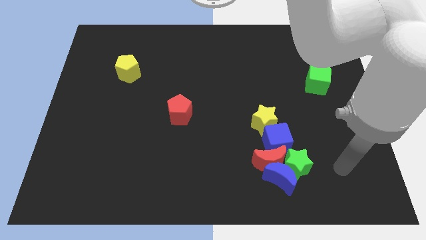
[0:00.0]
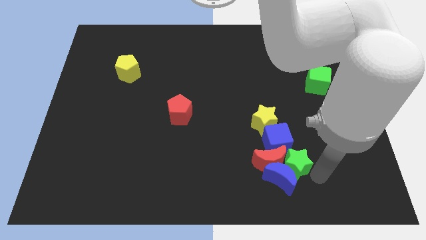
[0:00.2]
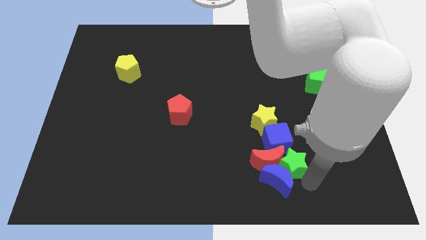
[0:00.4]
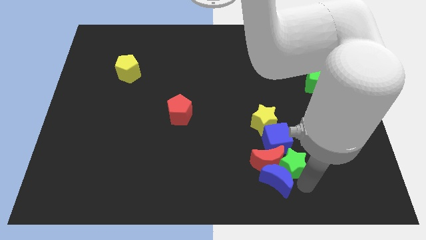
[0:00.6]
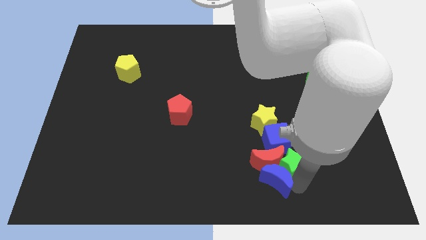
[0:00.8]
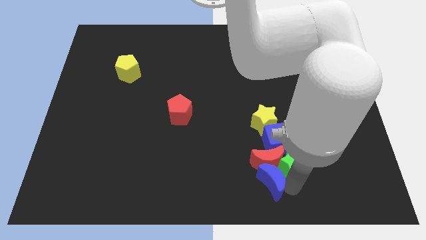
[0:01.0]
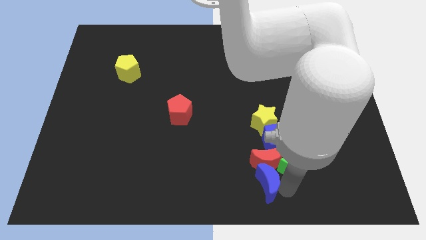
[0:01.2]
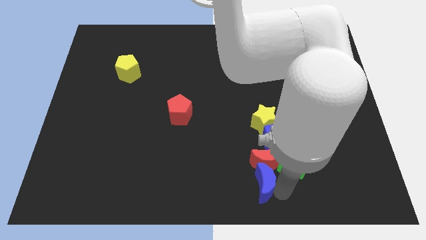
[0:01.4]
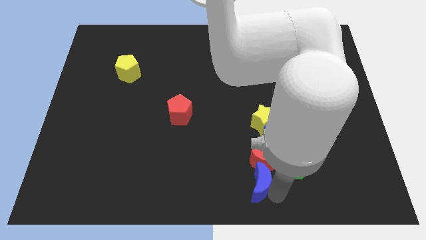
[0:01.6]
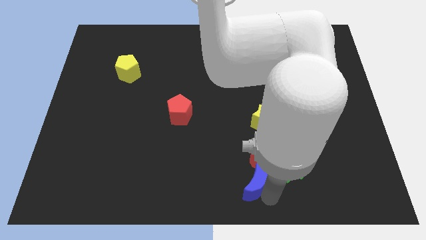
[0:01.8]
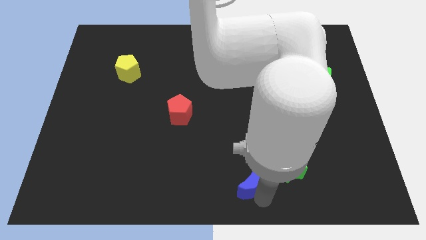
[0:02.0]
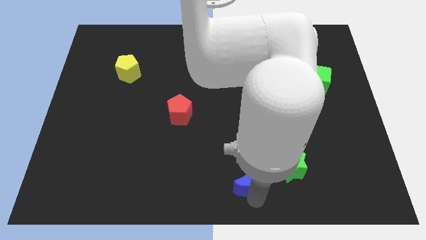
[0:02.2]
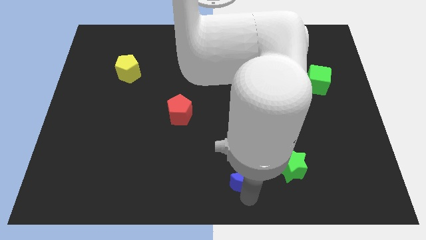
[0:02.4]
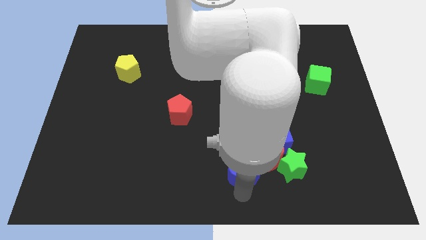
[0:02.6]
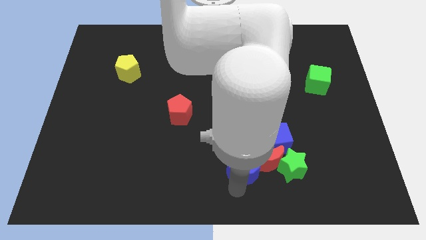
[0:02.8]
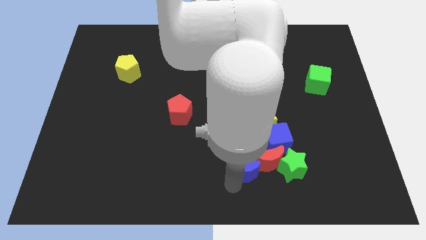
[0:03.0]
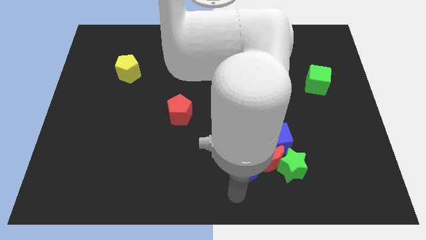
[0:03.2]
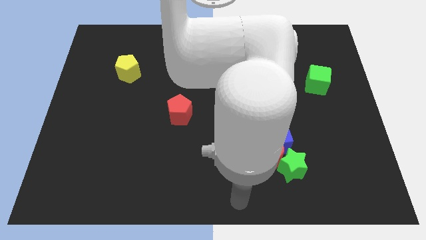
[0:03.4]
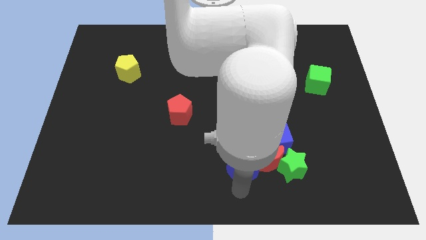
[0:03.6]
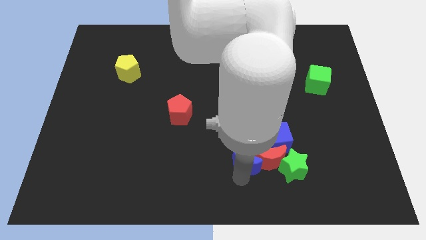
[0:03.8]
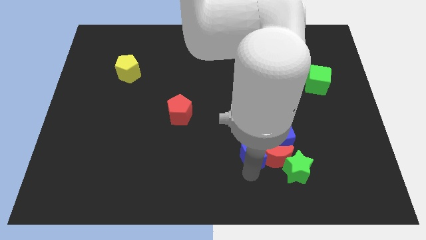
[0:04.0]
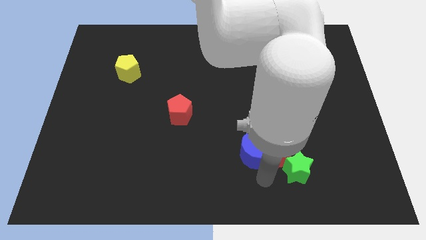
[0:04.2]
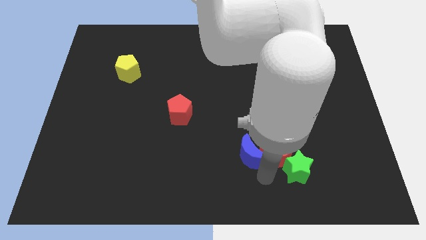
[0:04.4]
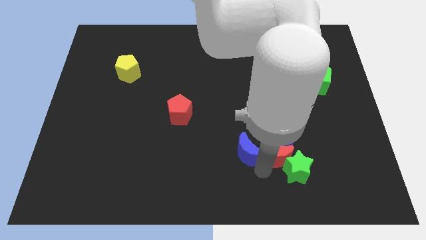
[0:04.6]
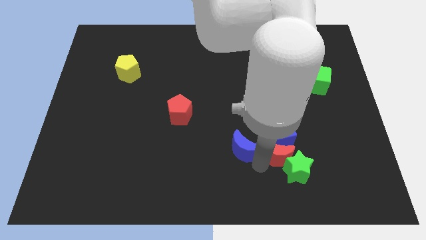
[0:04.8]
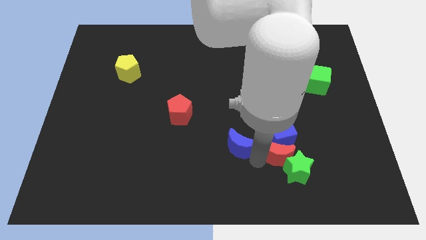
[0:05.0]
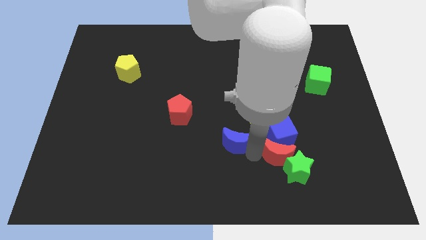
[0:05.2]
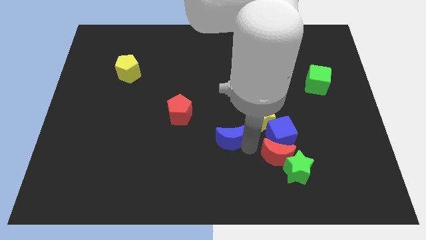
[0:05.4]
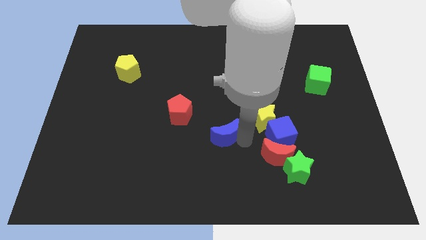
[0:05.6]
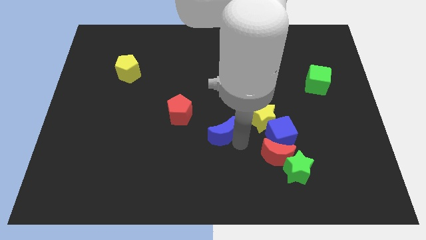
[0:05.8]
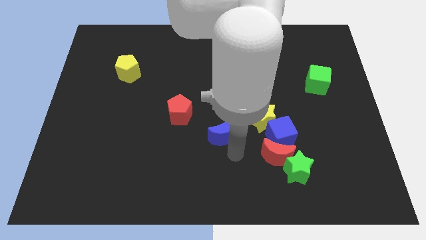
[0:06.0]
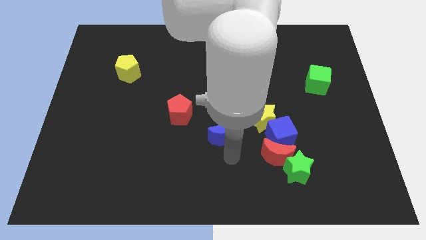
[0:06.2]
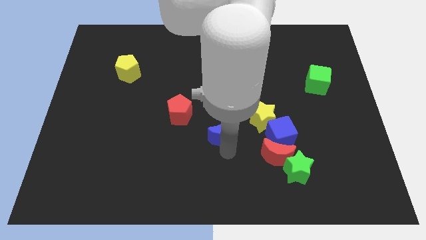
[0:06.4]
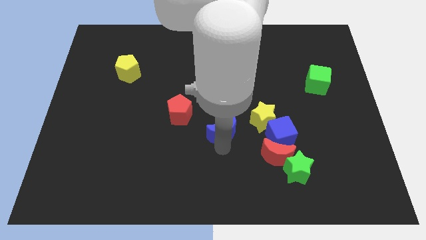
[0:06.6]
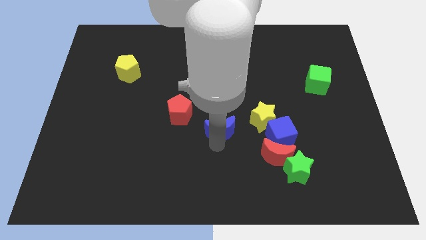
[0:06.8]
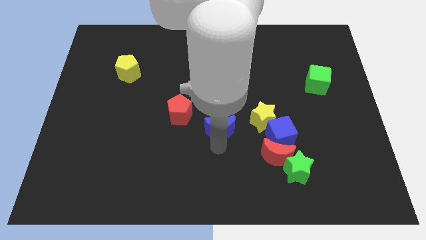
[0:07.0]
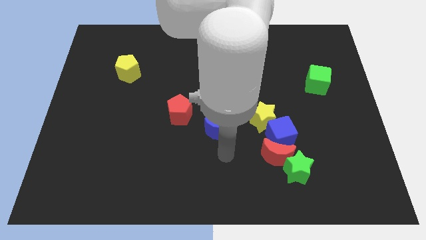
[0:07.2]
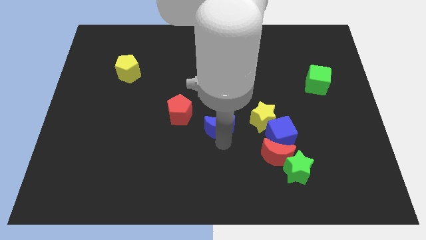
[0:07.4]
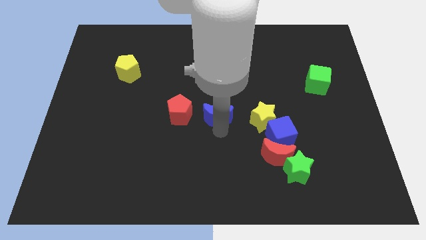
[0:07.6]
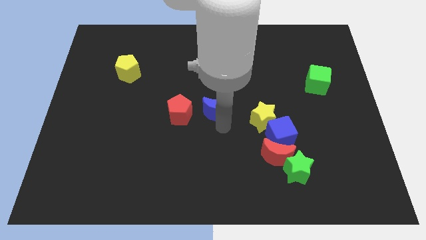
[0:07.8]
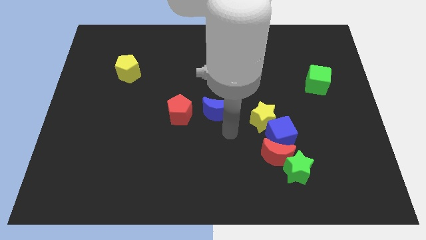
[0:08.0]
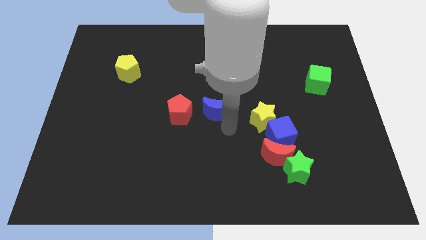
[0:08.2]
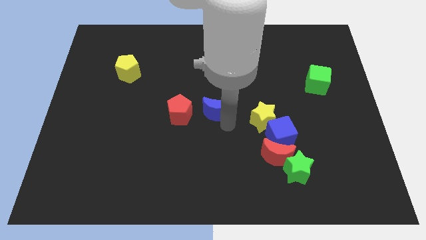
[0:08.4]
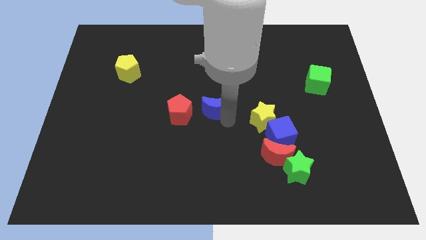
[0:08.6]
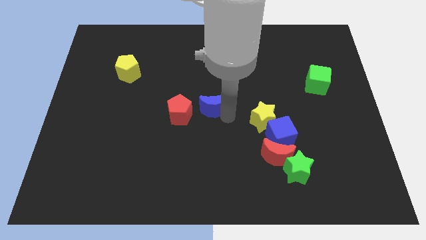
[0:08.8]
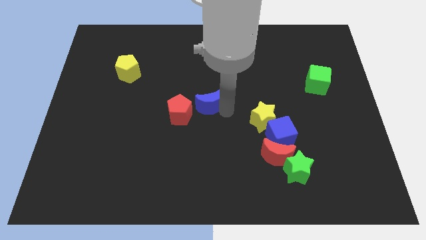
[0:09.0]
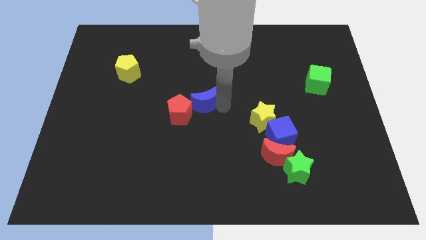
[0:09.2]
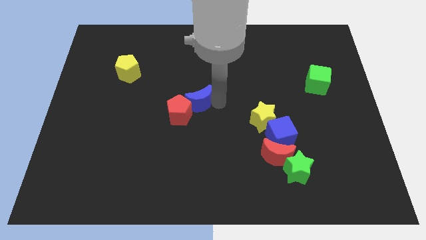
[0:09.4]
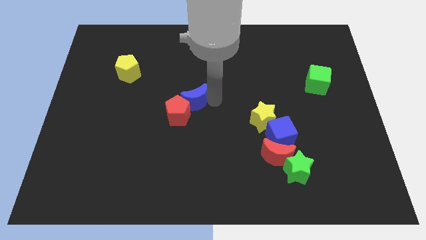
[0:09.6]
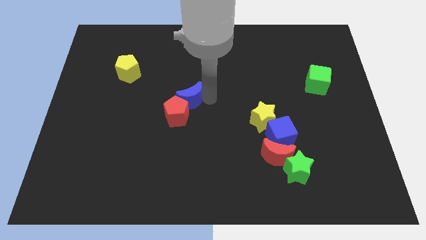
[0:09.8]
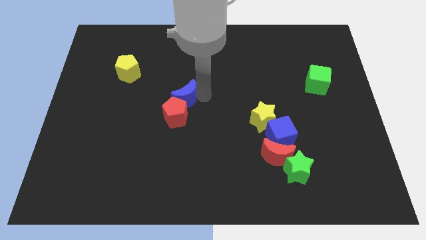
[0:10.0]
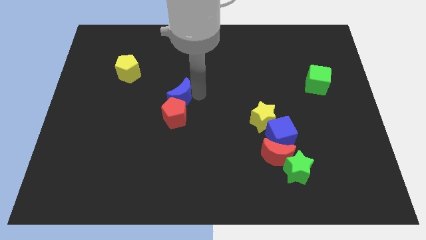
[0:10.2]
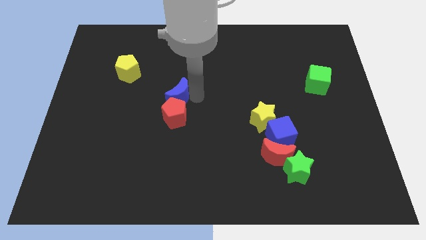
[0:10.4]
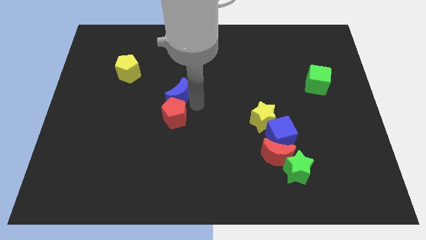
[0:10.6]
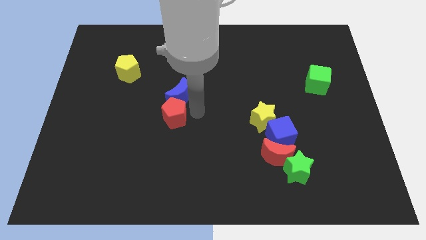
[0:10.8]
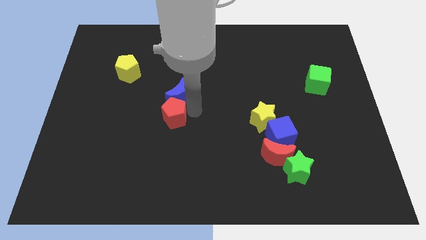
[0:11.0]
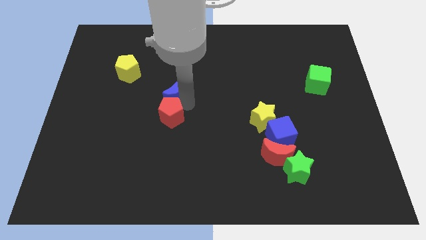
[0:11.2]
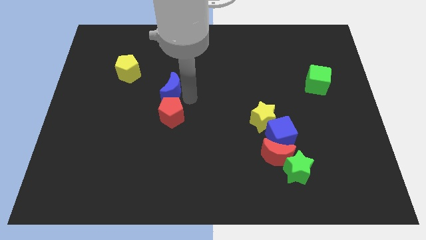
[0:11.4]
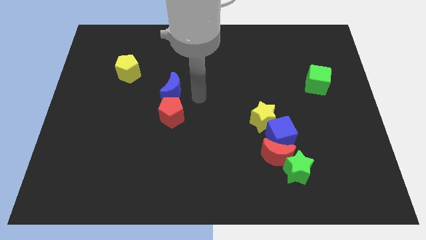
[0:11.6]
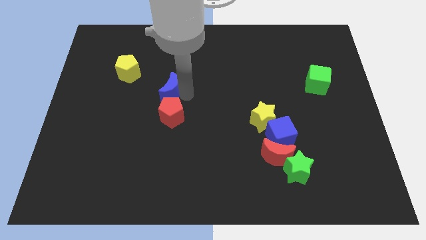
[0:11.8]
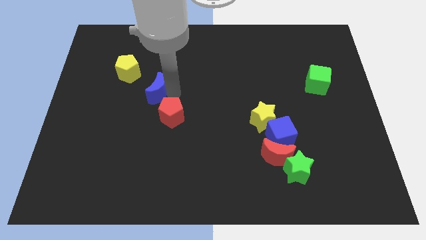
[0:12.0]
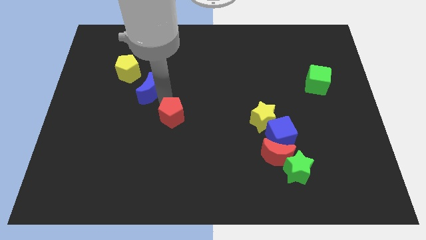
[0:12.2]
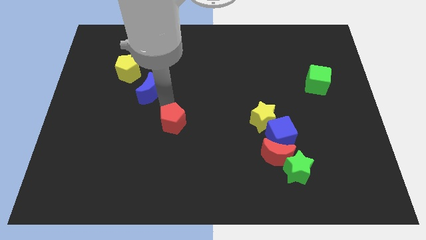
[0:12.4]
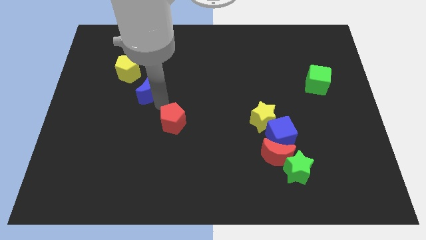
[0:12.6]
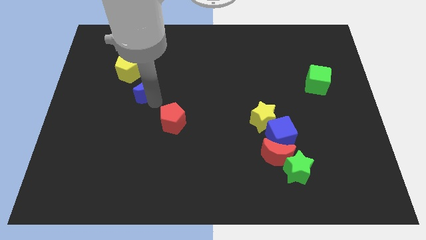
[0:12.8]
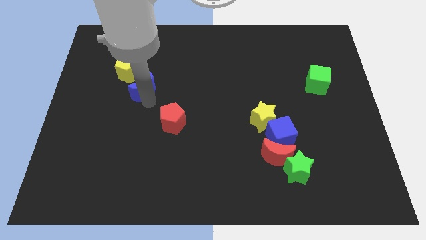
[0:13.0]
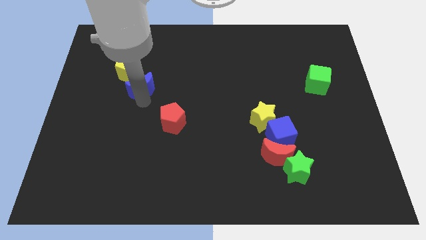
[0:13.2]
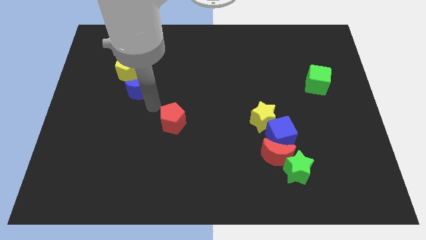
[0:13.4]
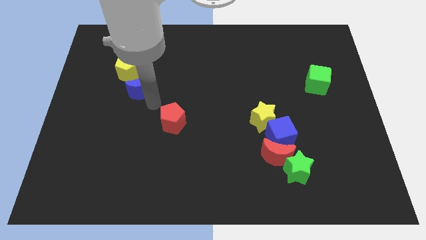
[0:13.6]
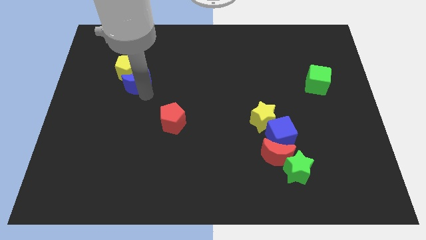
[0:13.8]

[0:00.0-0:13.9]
put the blue moon next to the yellow pentagon

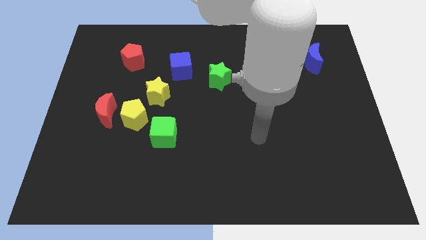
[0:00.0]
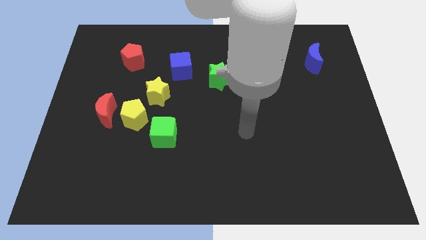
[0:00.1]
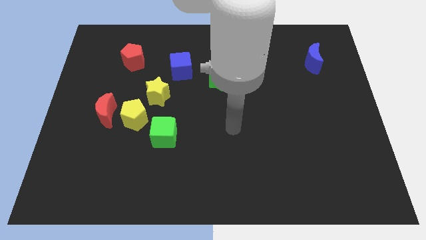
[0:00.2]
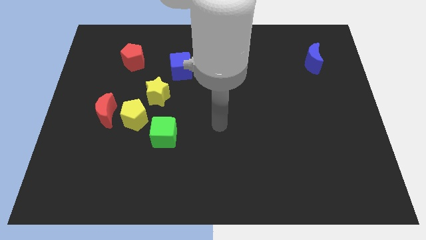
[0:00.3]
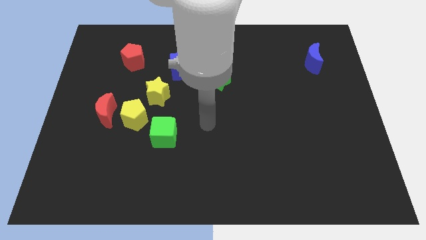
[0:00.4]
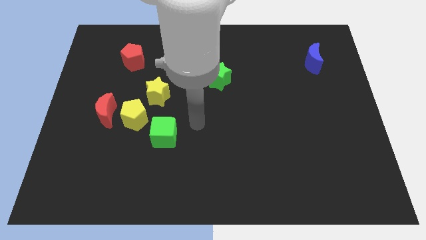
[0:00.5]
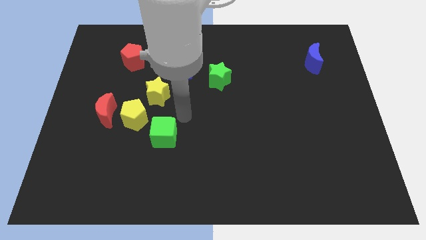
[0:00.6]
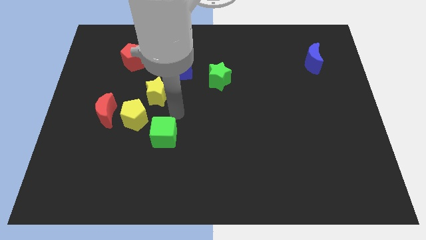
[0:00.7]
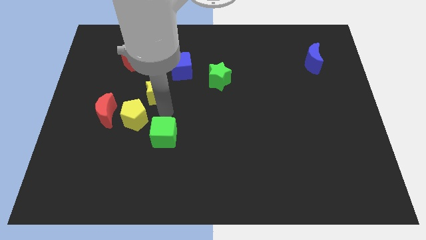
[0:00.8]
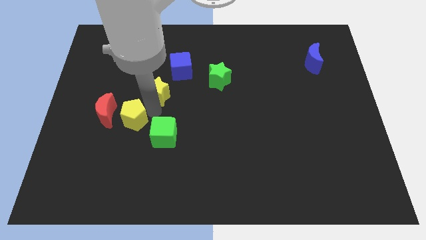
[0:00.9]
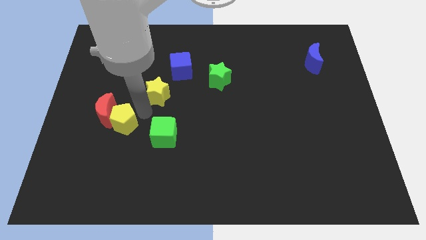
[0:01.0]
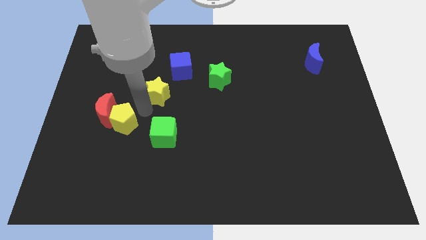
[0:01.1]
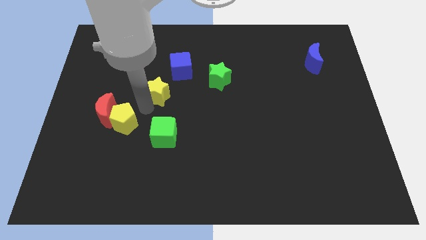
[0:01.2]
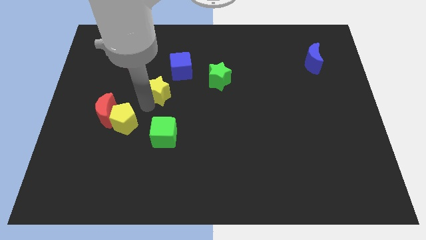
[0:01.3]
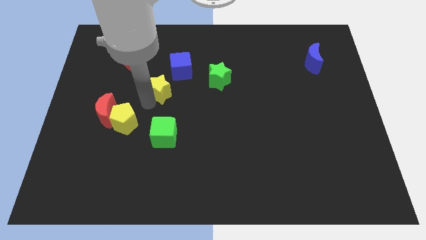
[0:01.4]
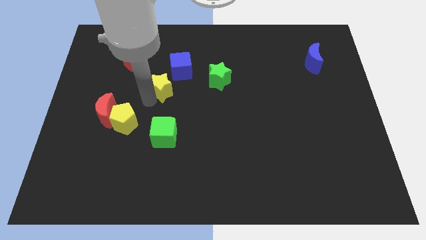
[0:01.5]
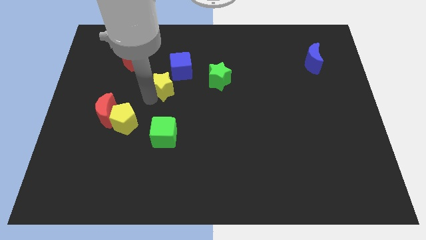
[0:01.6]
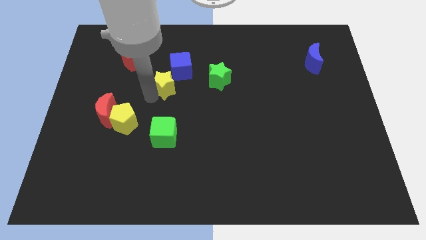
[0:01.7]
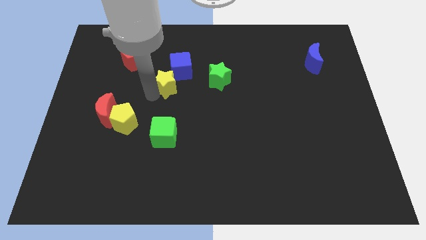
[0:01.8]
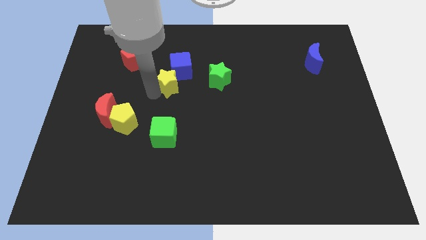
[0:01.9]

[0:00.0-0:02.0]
slide the yellow star next to the blue cube
